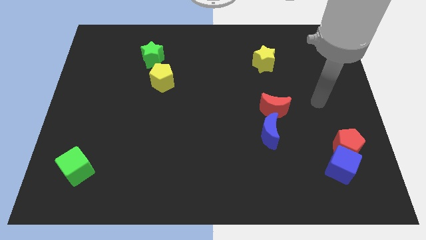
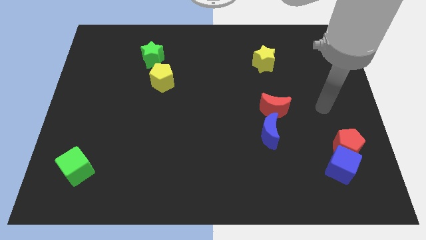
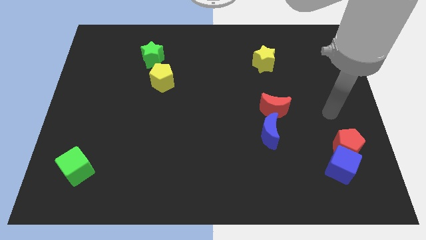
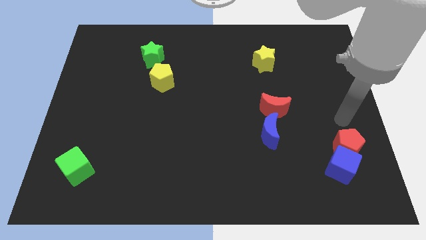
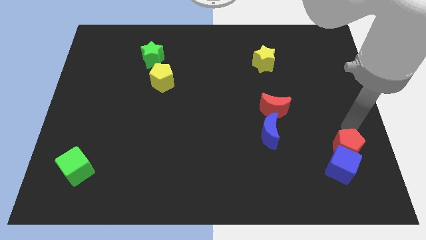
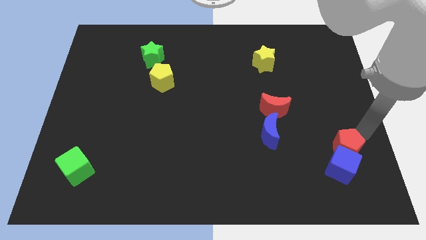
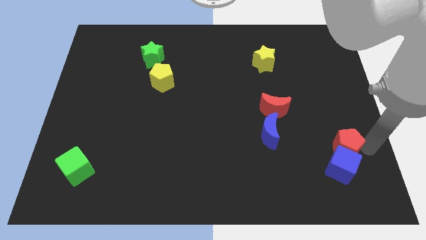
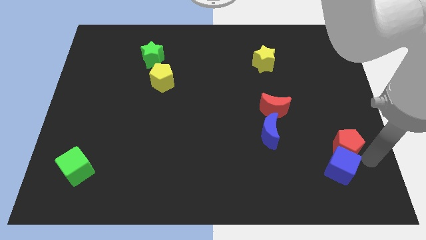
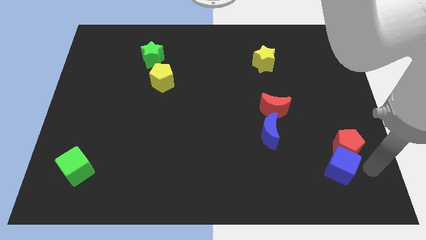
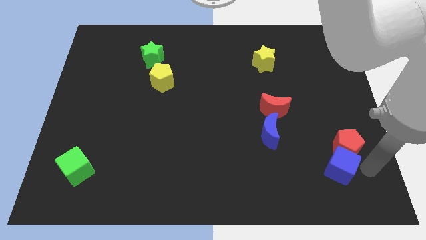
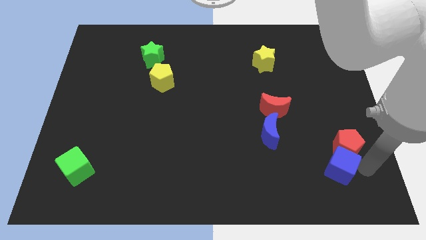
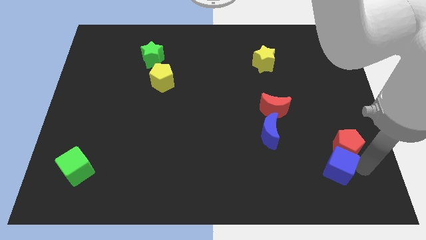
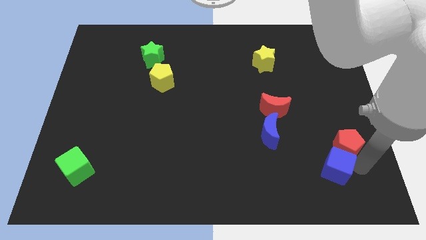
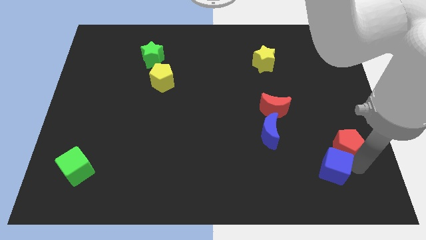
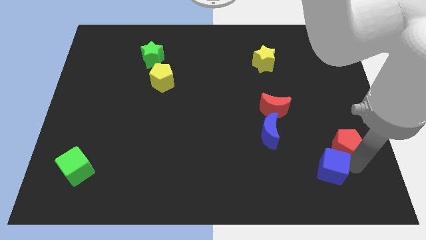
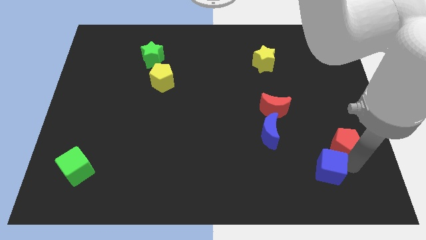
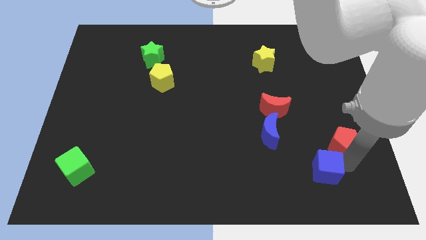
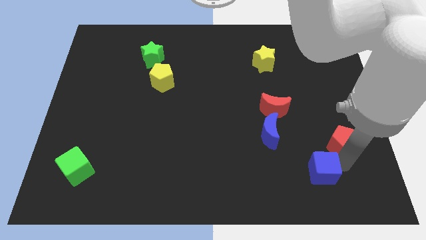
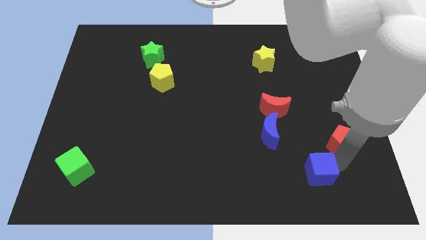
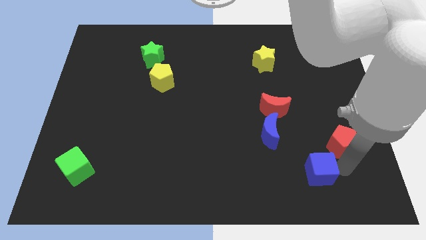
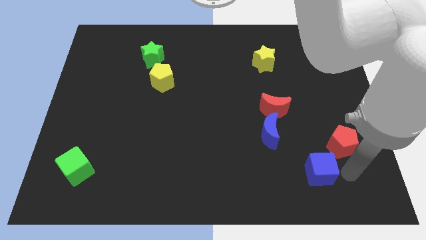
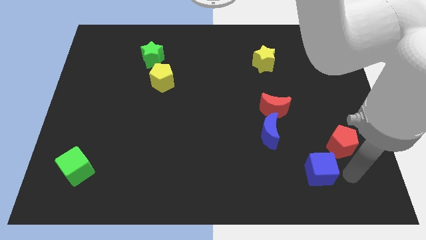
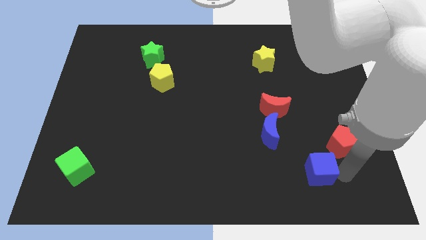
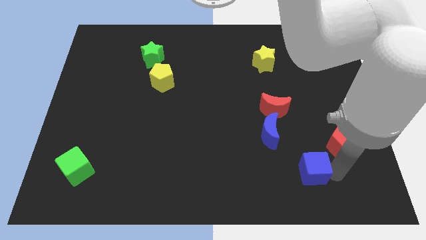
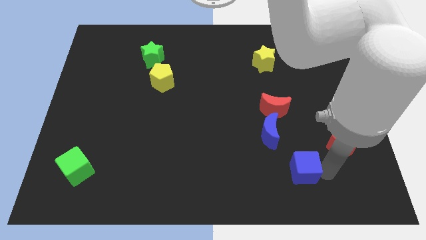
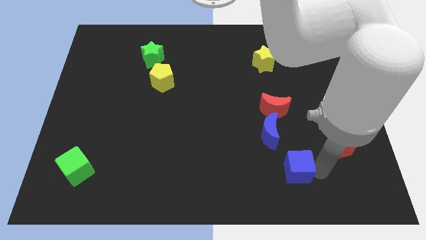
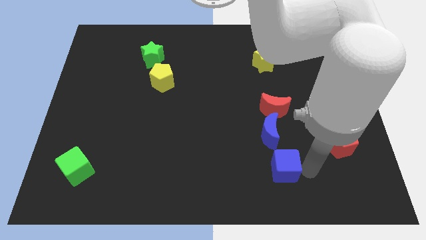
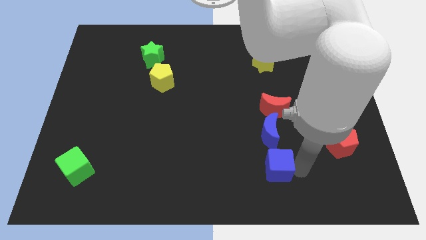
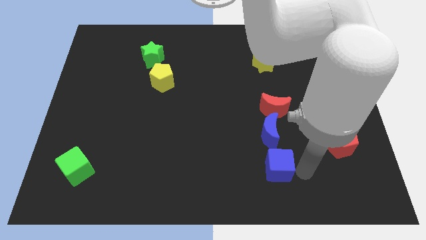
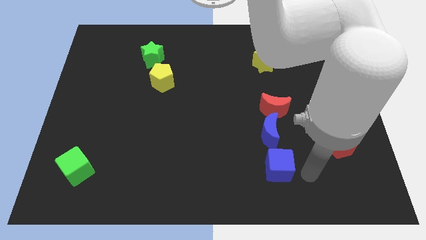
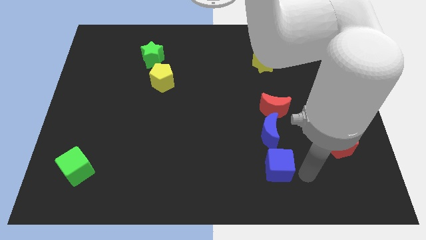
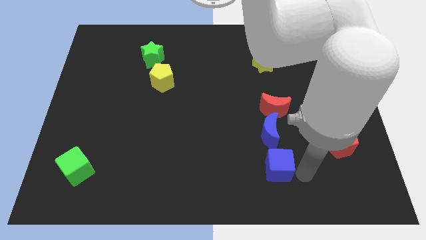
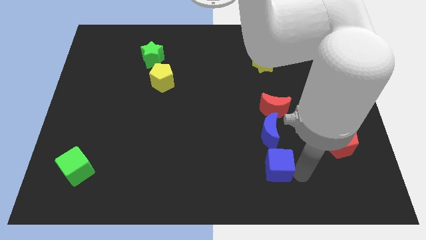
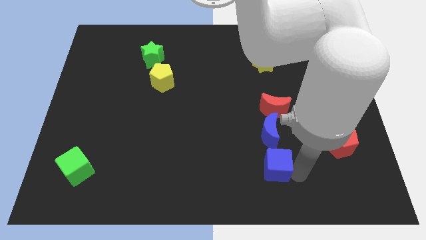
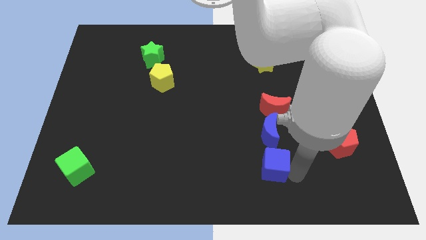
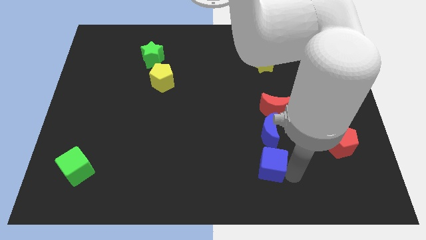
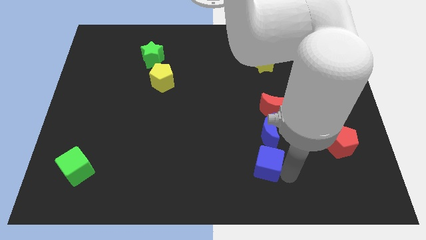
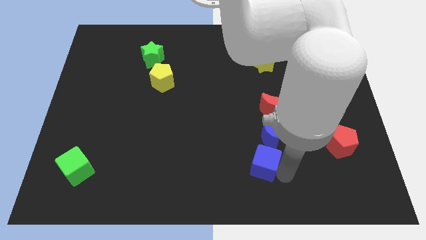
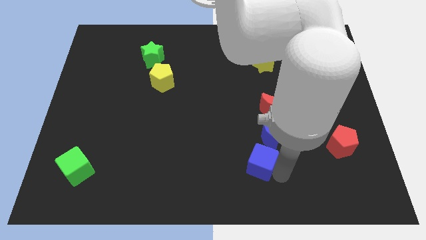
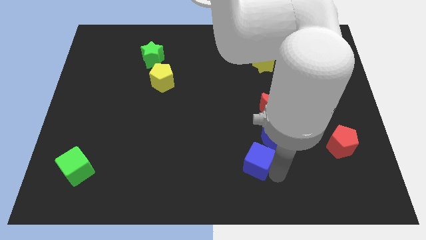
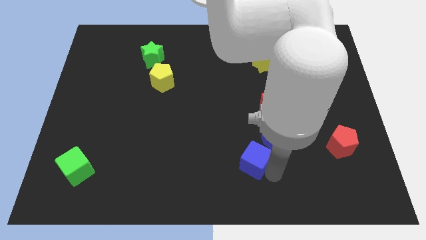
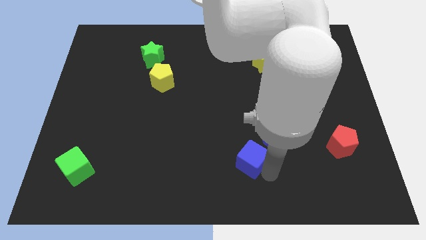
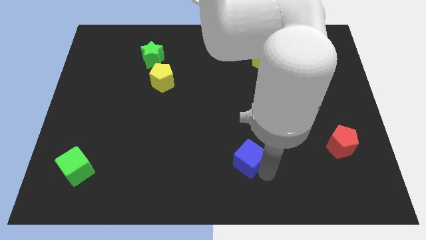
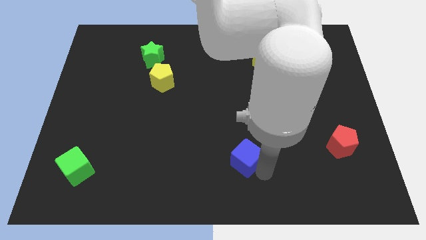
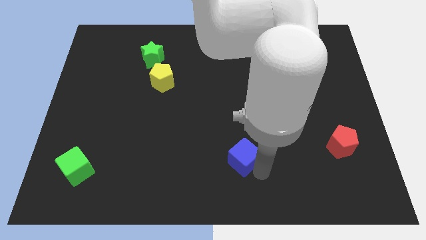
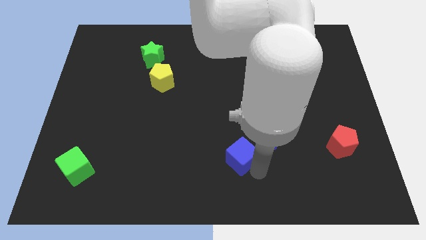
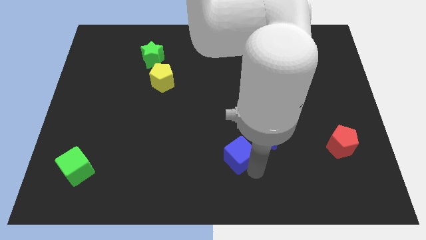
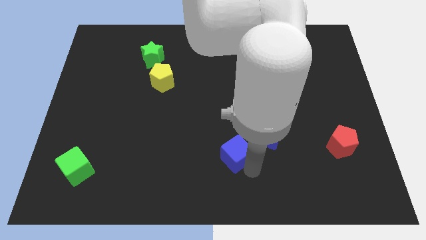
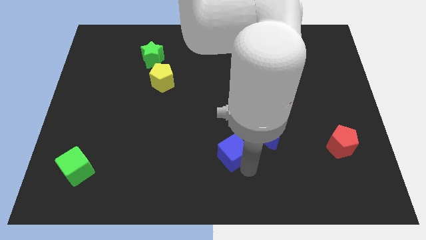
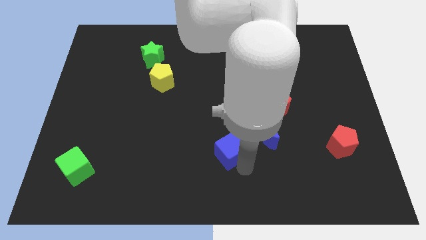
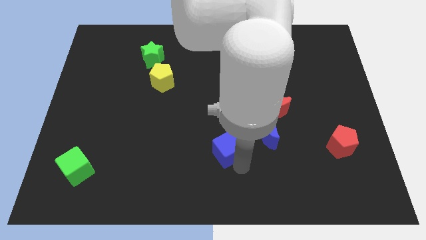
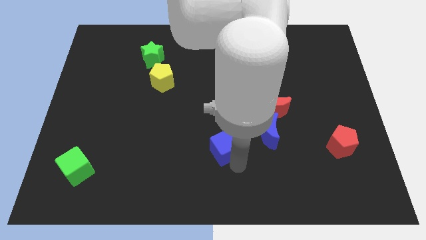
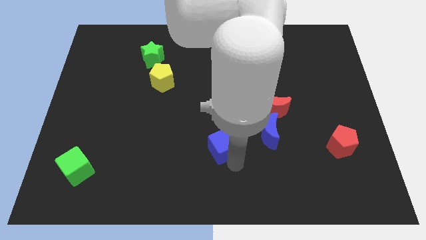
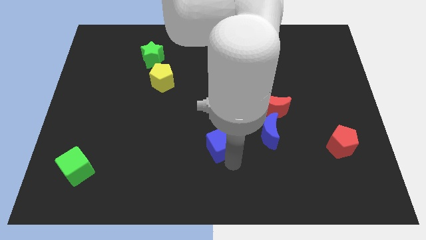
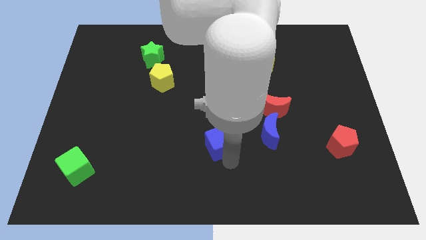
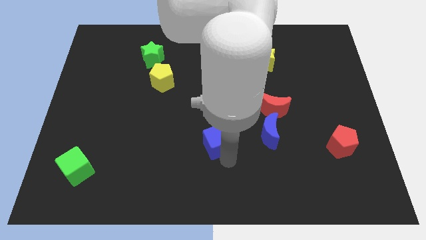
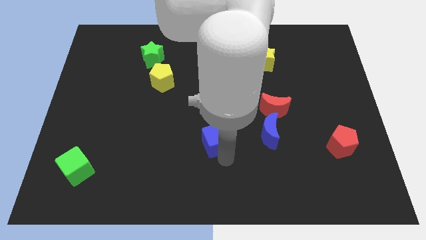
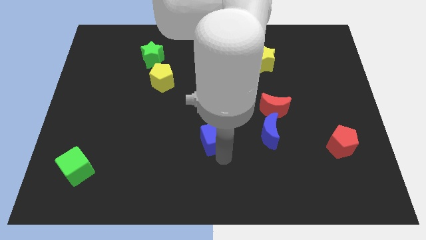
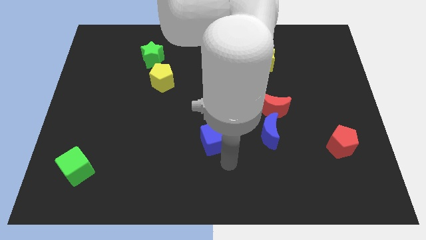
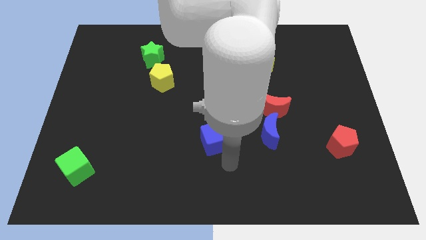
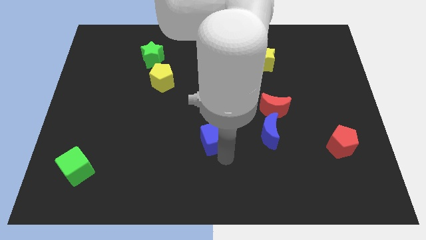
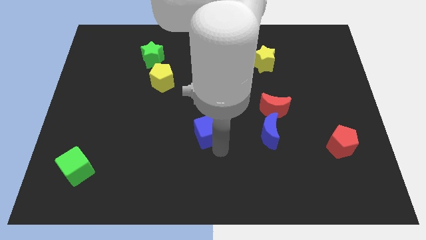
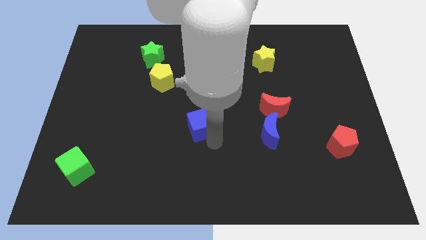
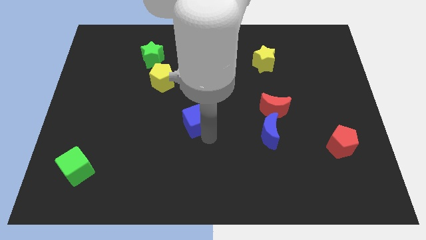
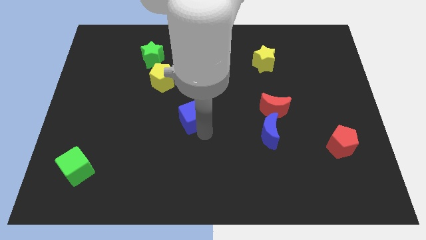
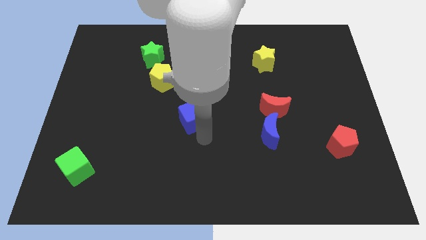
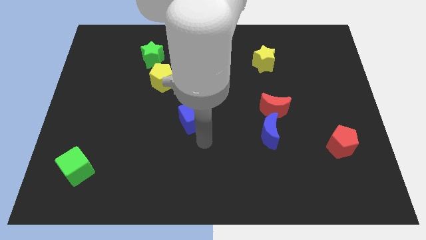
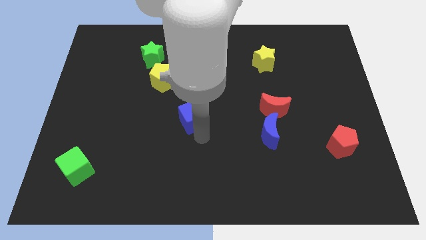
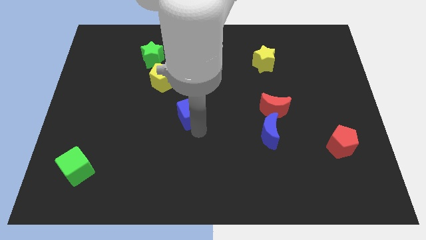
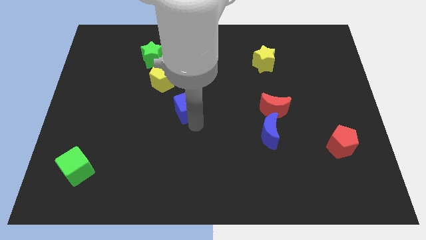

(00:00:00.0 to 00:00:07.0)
move the blue cube diagonally down and to the right of the yellow pentagon
